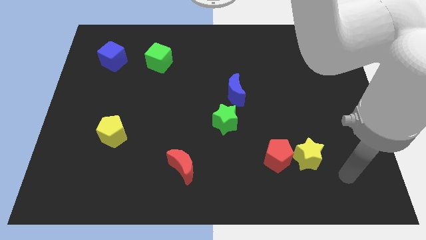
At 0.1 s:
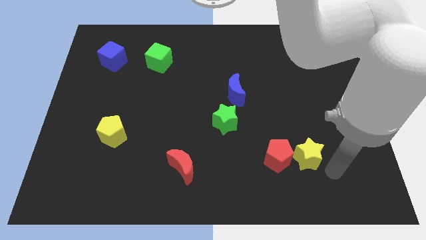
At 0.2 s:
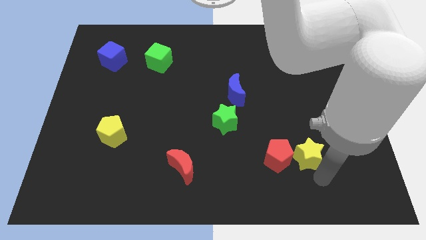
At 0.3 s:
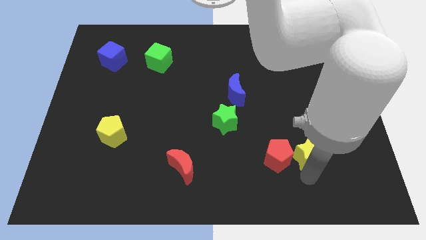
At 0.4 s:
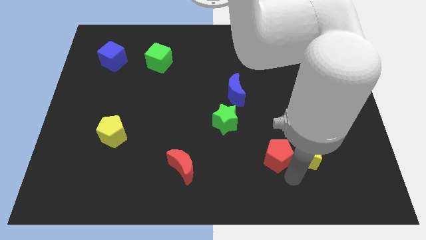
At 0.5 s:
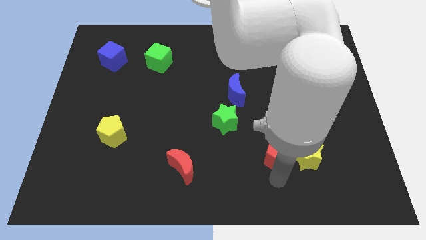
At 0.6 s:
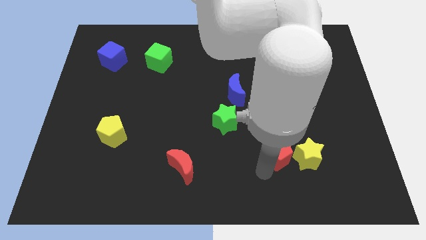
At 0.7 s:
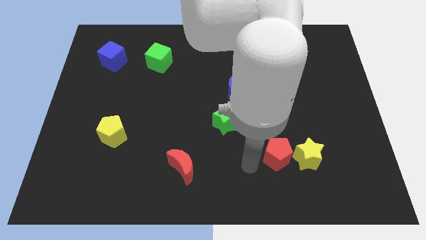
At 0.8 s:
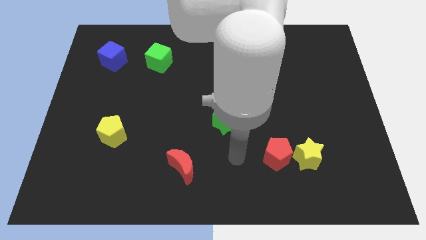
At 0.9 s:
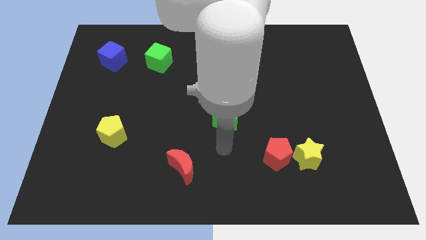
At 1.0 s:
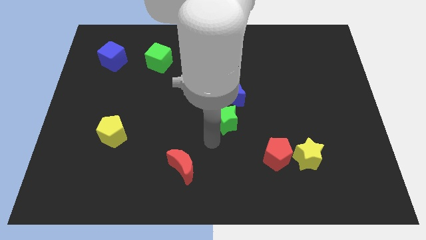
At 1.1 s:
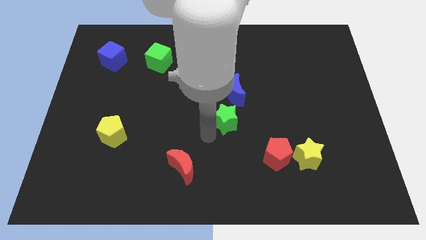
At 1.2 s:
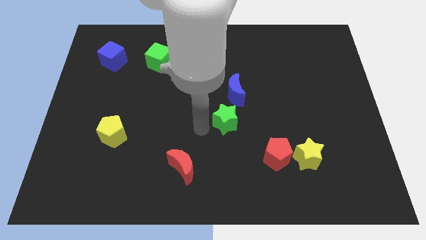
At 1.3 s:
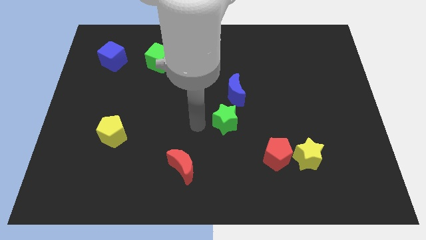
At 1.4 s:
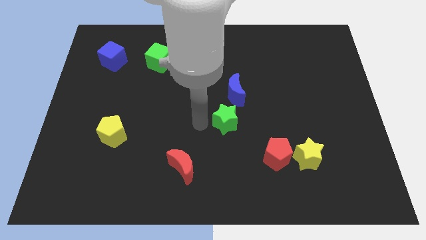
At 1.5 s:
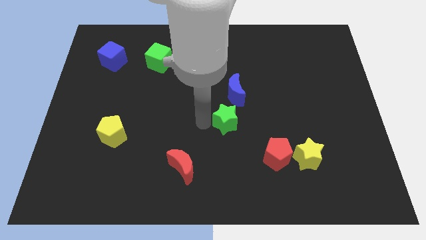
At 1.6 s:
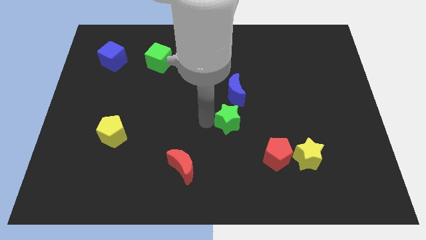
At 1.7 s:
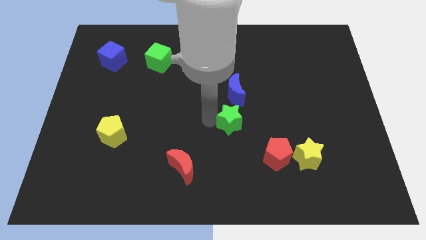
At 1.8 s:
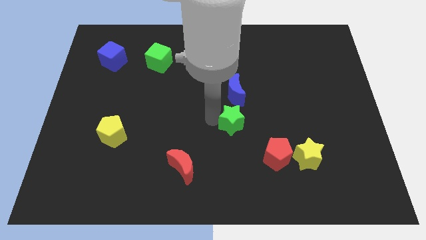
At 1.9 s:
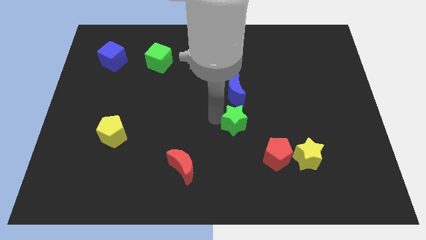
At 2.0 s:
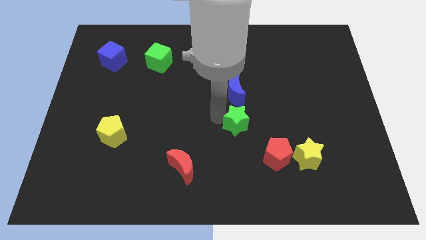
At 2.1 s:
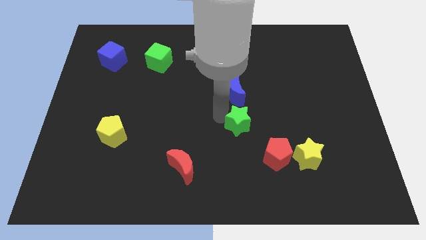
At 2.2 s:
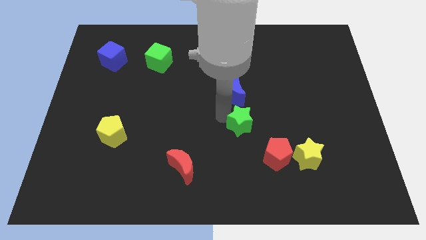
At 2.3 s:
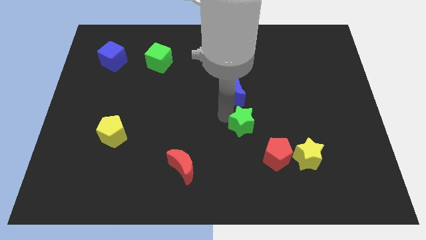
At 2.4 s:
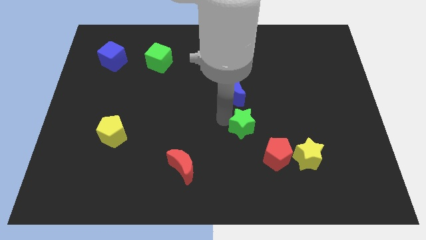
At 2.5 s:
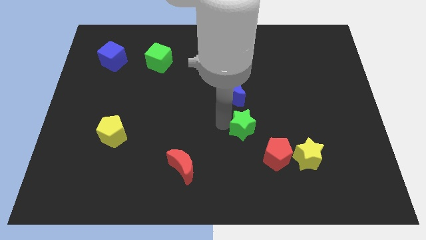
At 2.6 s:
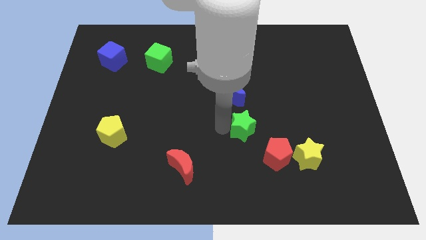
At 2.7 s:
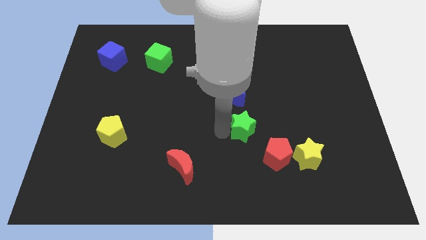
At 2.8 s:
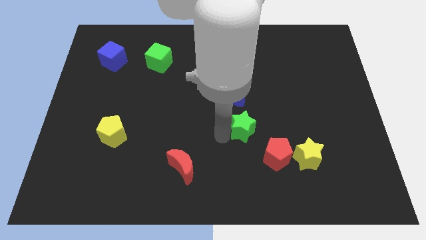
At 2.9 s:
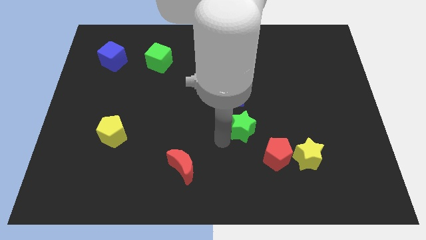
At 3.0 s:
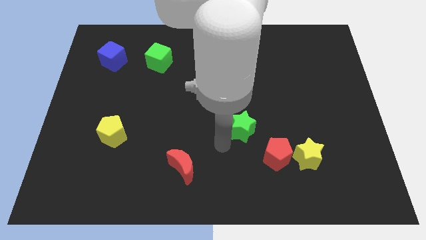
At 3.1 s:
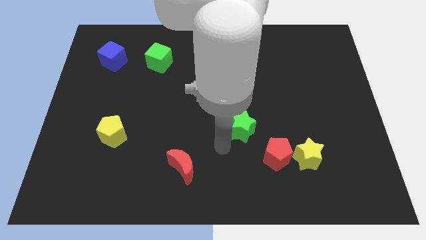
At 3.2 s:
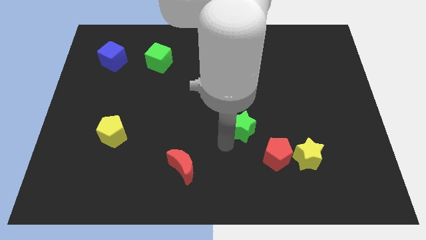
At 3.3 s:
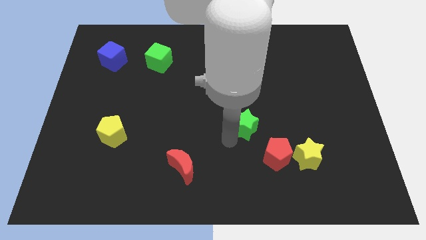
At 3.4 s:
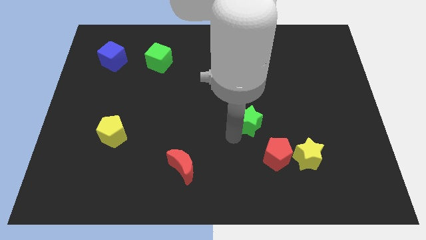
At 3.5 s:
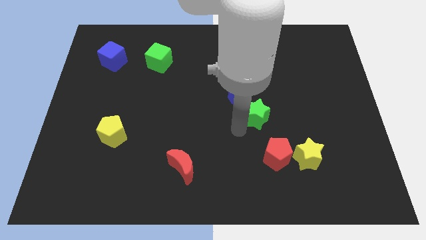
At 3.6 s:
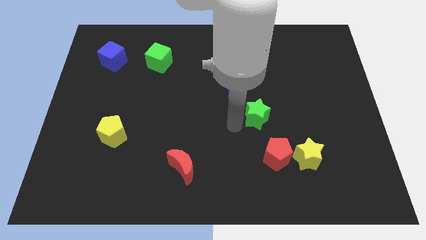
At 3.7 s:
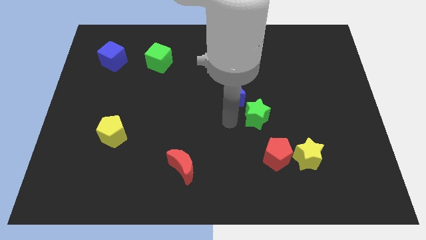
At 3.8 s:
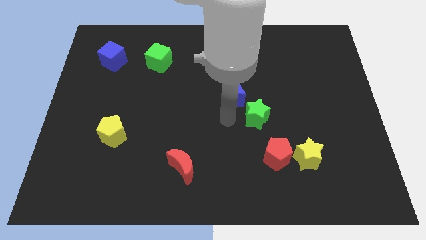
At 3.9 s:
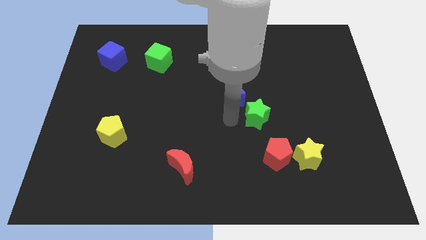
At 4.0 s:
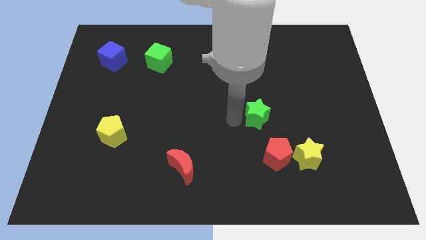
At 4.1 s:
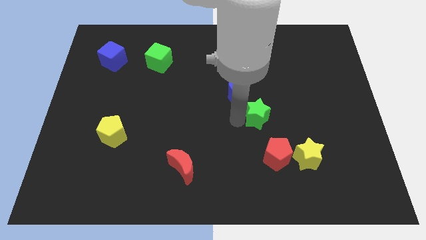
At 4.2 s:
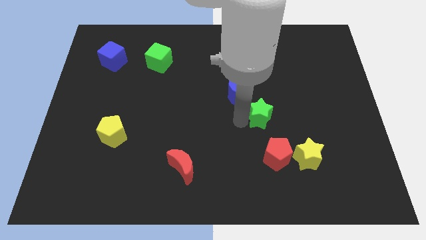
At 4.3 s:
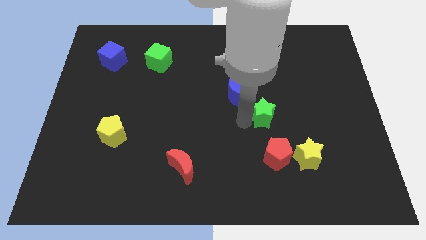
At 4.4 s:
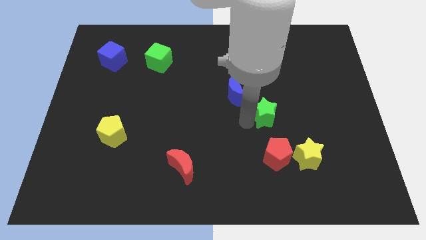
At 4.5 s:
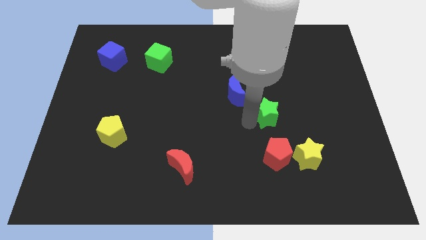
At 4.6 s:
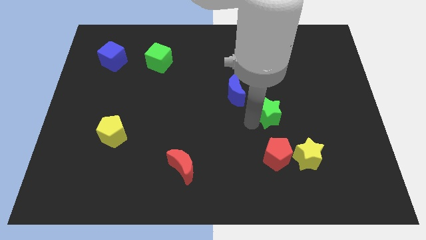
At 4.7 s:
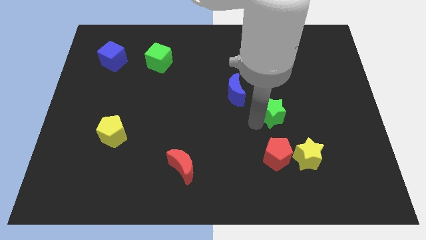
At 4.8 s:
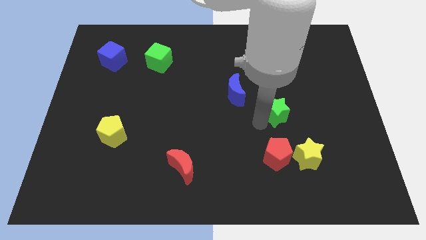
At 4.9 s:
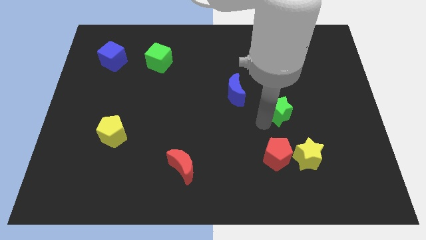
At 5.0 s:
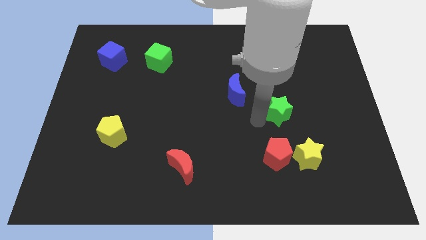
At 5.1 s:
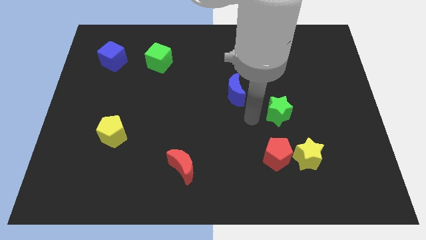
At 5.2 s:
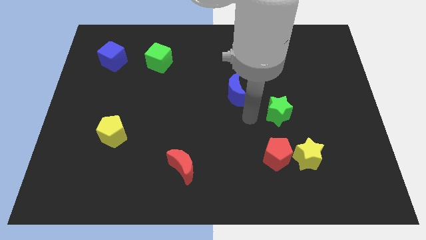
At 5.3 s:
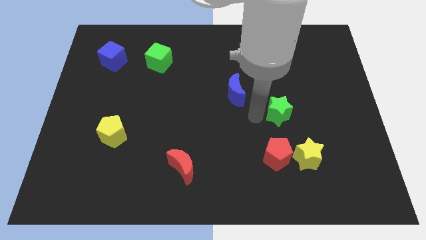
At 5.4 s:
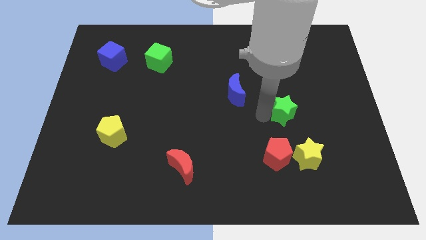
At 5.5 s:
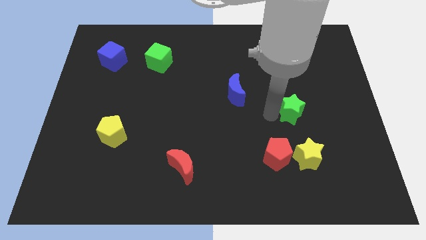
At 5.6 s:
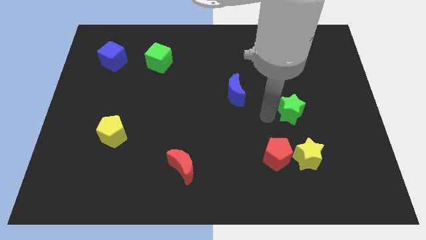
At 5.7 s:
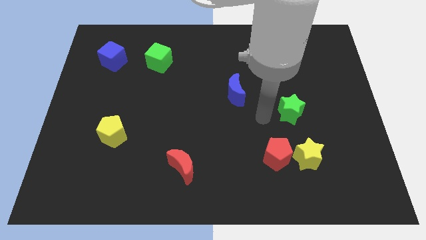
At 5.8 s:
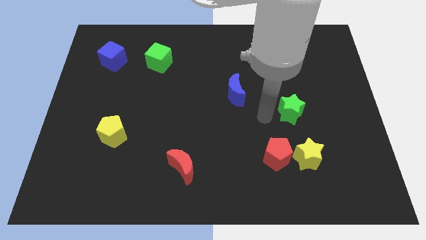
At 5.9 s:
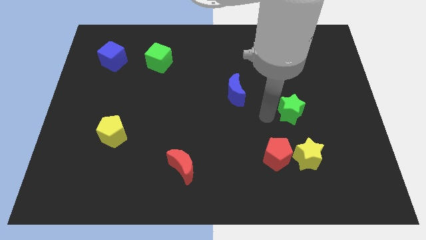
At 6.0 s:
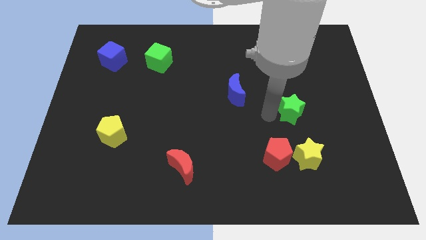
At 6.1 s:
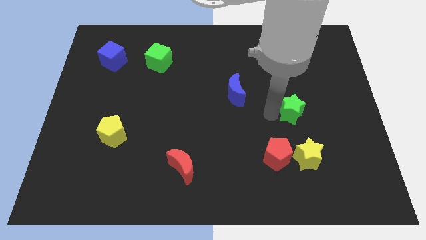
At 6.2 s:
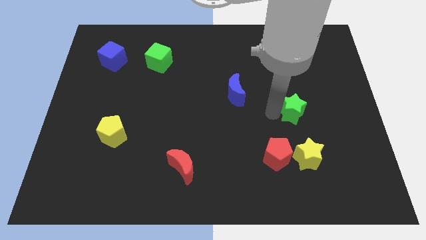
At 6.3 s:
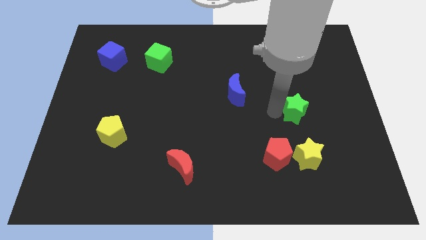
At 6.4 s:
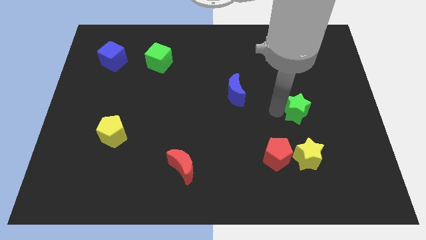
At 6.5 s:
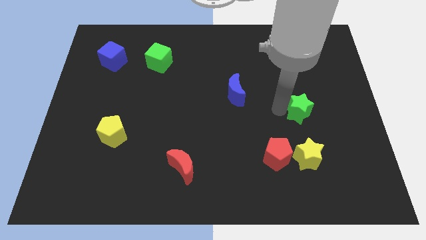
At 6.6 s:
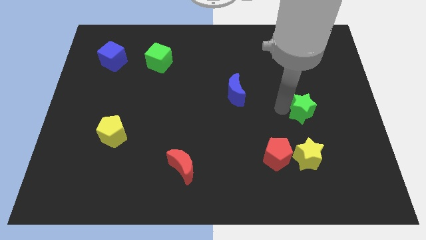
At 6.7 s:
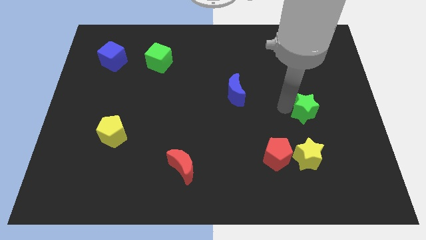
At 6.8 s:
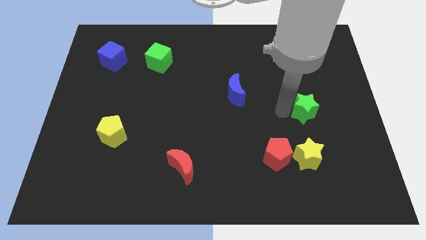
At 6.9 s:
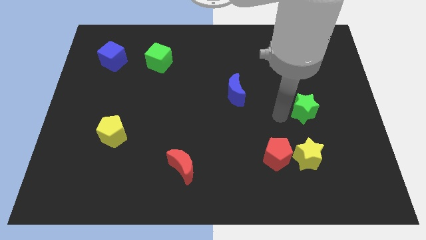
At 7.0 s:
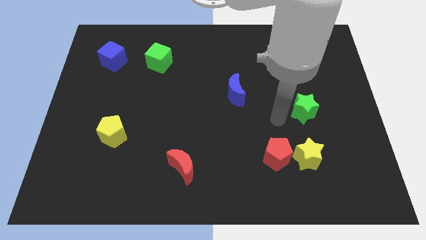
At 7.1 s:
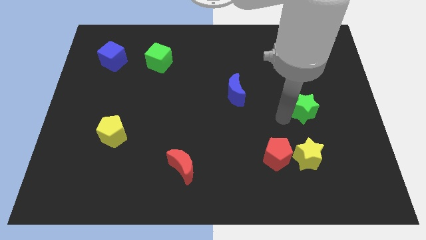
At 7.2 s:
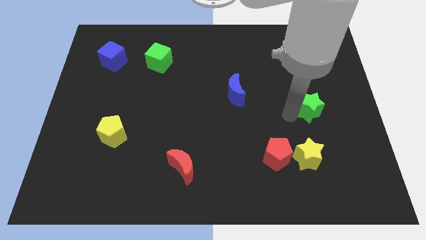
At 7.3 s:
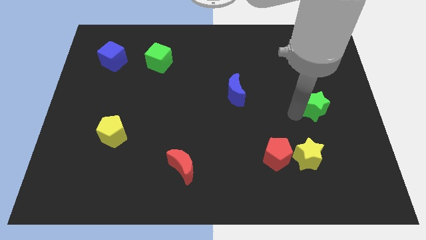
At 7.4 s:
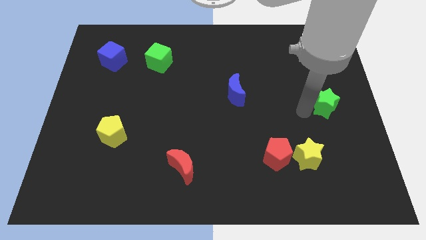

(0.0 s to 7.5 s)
move the green star to the right side
